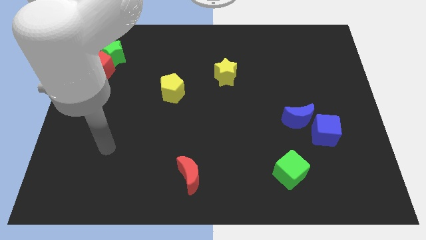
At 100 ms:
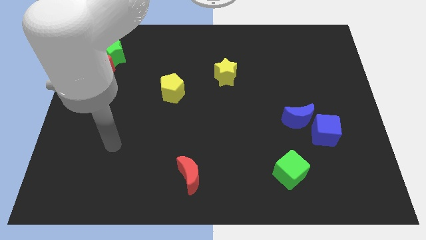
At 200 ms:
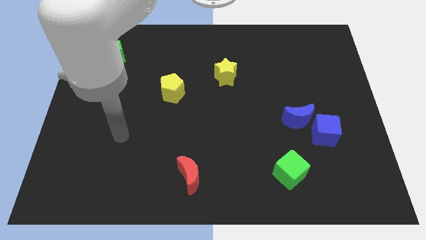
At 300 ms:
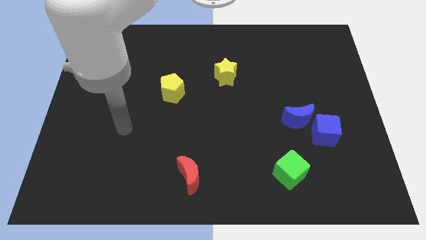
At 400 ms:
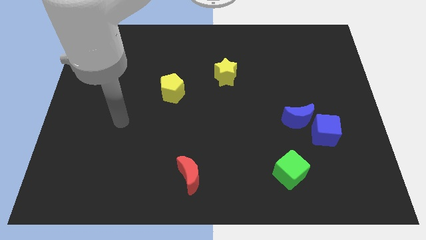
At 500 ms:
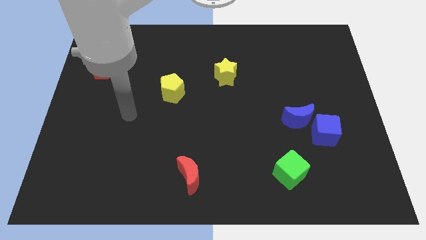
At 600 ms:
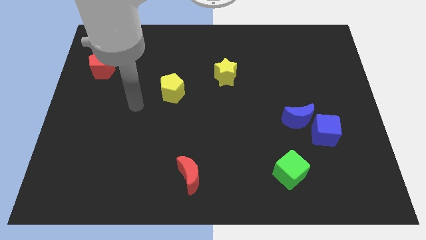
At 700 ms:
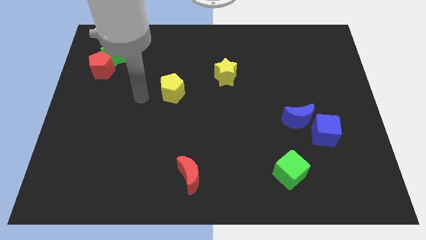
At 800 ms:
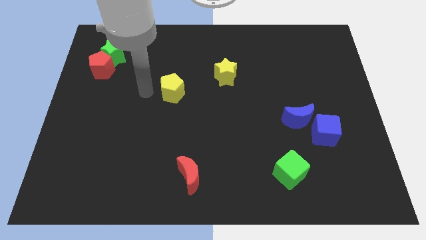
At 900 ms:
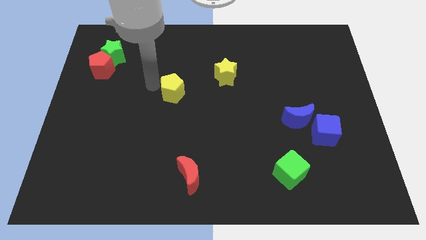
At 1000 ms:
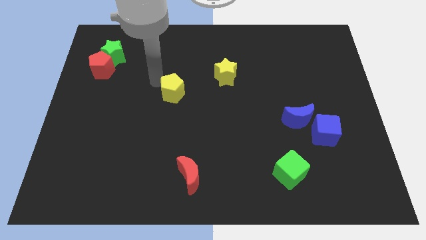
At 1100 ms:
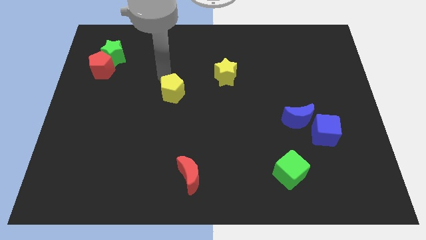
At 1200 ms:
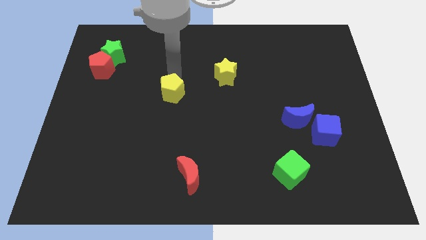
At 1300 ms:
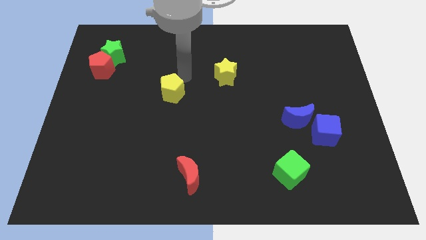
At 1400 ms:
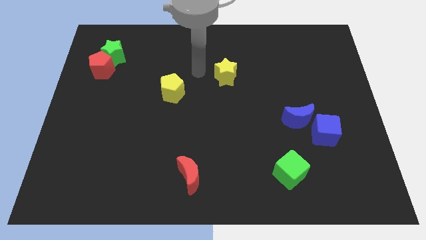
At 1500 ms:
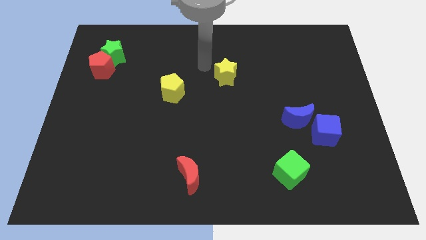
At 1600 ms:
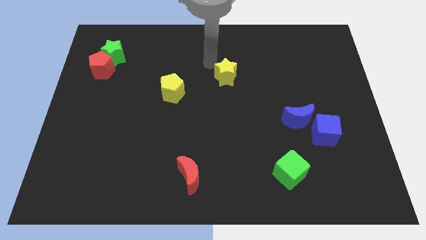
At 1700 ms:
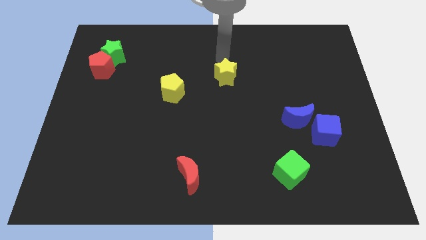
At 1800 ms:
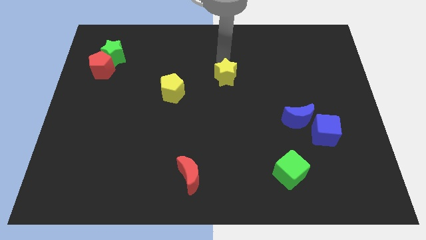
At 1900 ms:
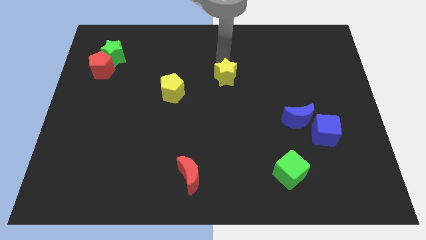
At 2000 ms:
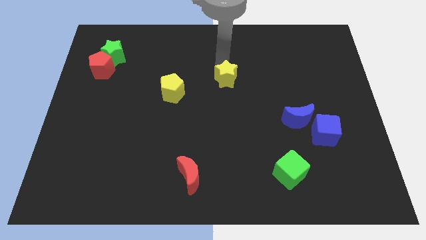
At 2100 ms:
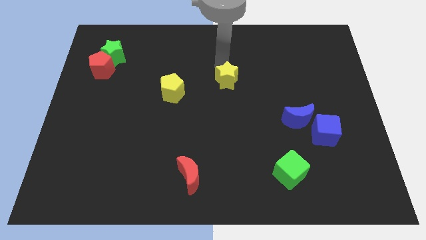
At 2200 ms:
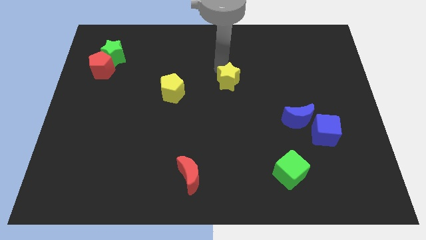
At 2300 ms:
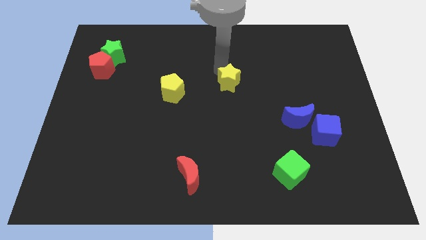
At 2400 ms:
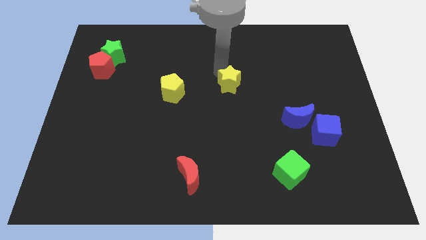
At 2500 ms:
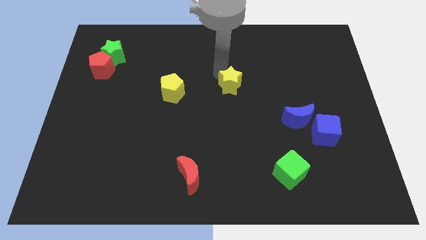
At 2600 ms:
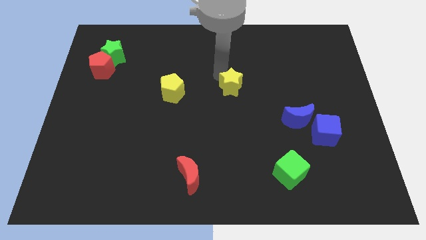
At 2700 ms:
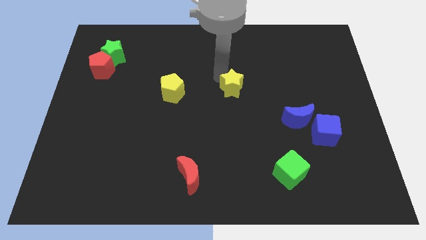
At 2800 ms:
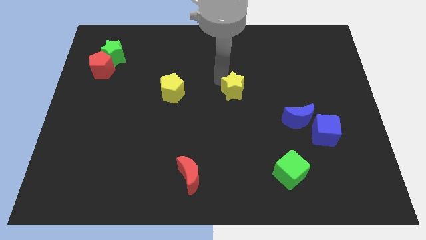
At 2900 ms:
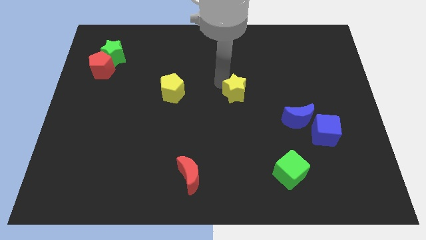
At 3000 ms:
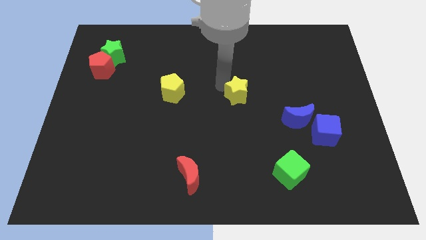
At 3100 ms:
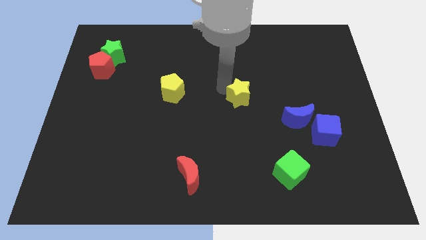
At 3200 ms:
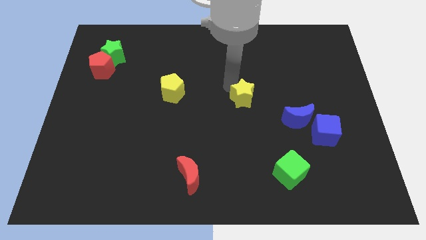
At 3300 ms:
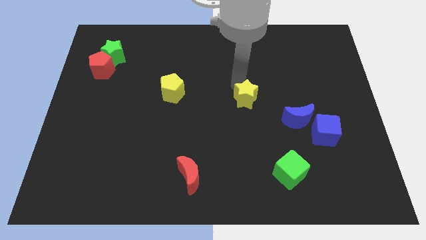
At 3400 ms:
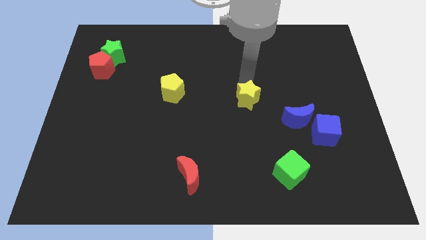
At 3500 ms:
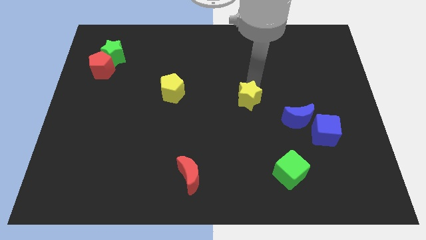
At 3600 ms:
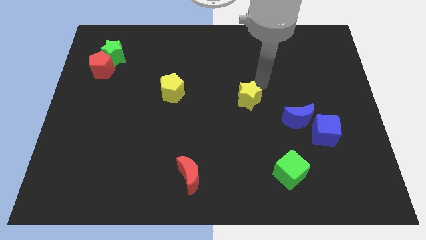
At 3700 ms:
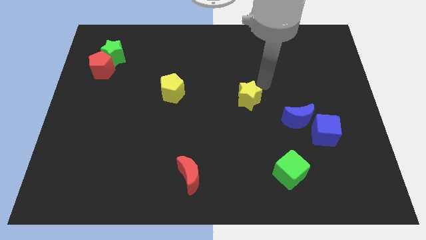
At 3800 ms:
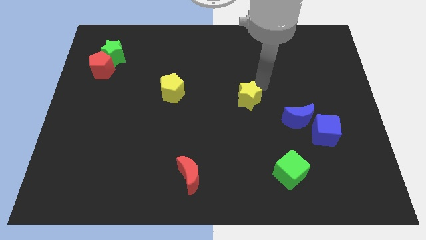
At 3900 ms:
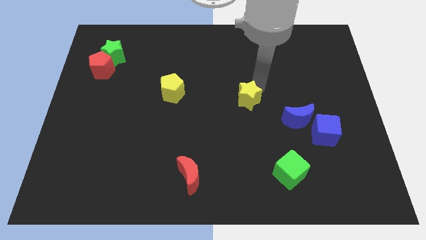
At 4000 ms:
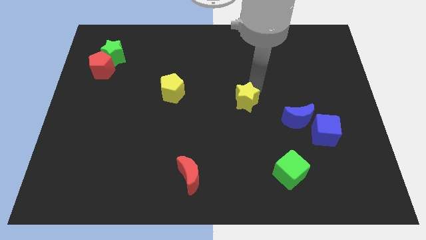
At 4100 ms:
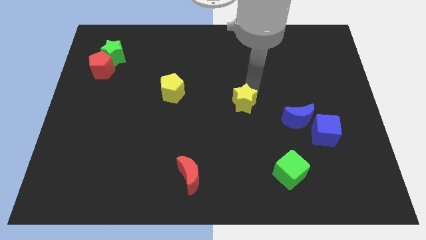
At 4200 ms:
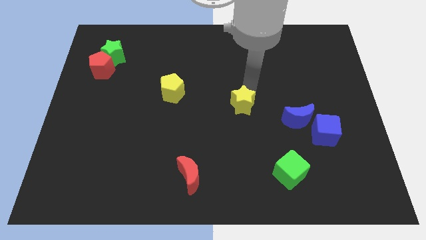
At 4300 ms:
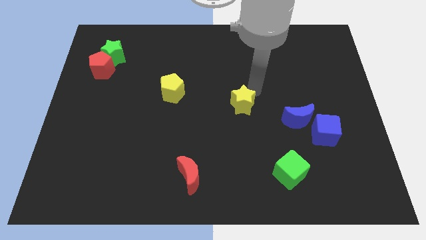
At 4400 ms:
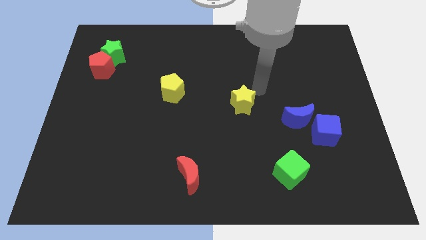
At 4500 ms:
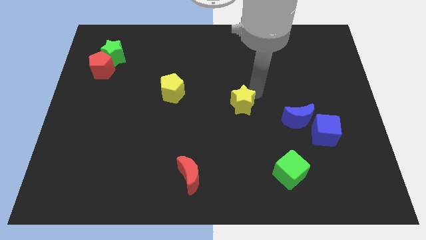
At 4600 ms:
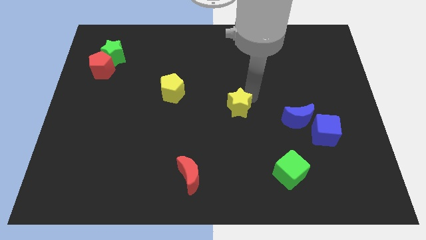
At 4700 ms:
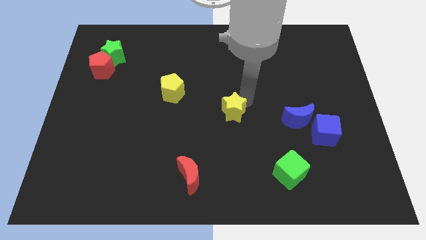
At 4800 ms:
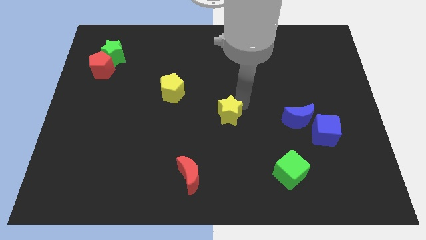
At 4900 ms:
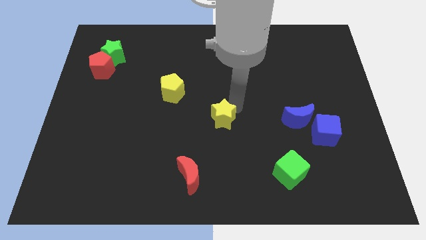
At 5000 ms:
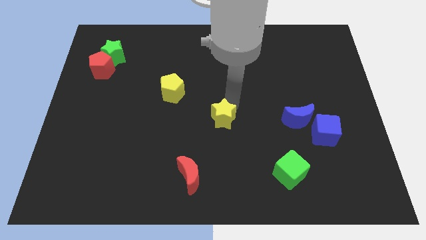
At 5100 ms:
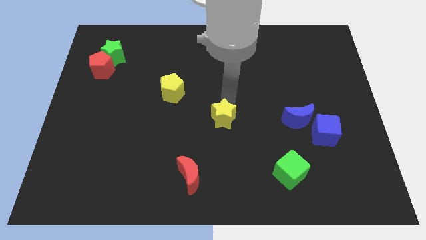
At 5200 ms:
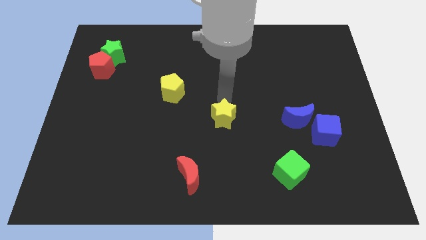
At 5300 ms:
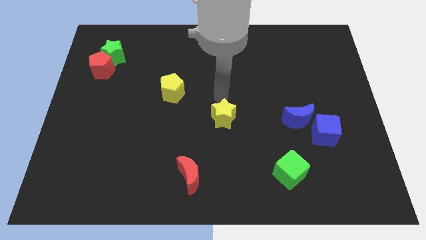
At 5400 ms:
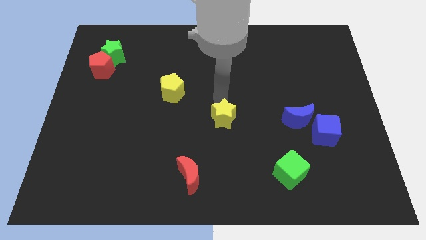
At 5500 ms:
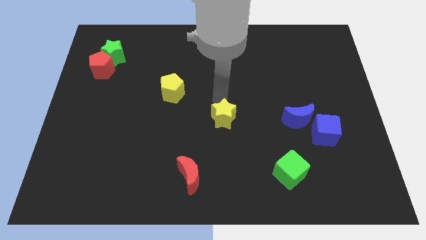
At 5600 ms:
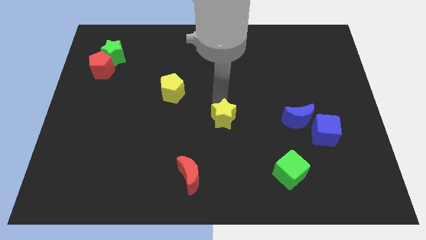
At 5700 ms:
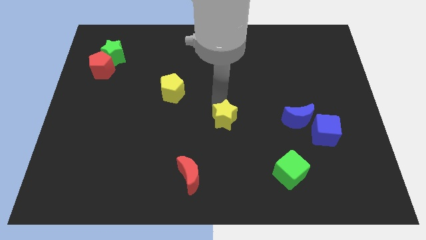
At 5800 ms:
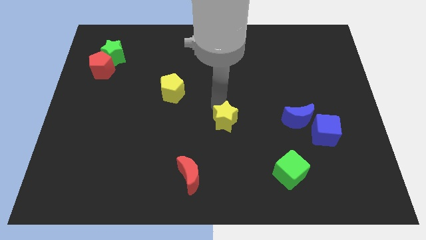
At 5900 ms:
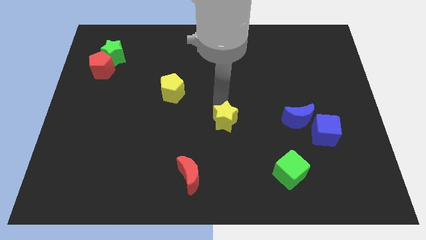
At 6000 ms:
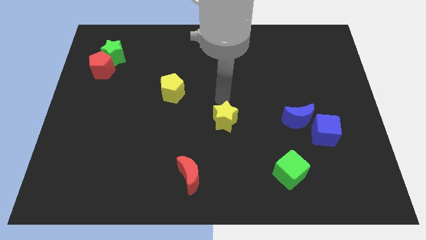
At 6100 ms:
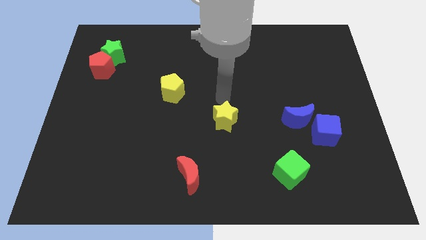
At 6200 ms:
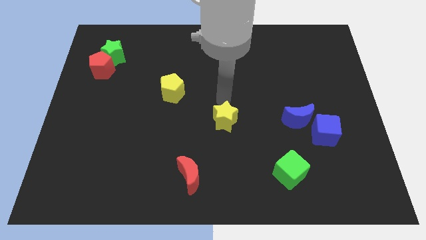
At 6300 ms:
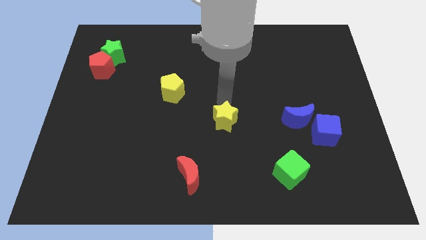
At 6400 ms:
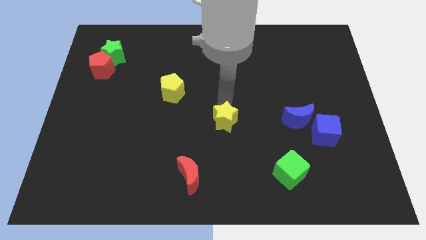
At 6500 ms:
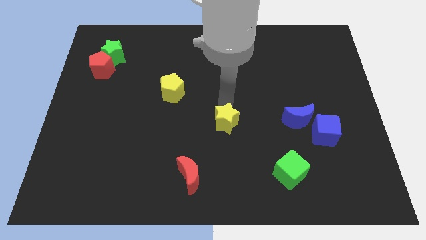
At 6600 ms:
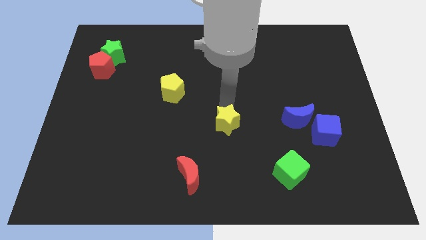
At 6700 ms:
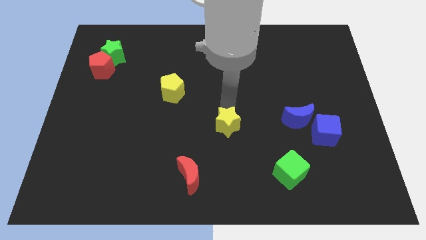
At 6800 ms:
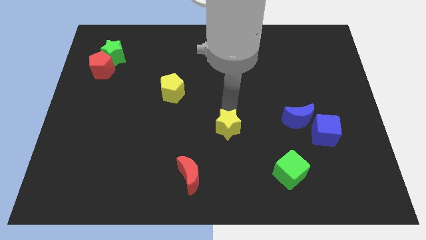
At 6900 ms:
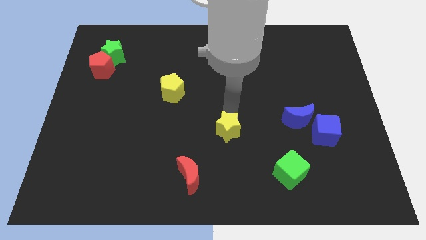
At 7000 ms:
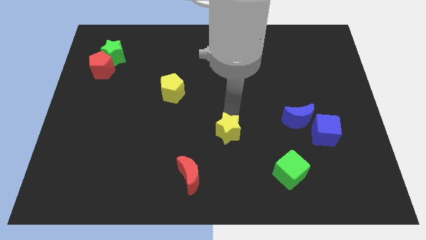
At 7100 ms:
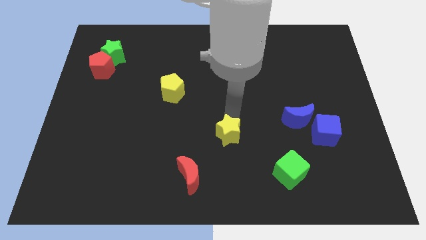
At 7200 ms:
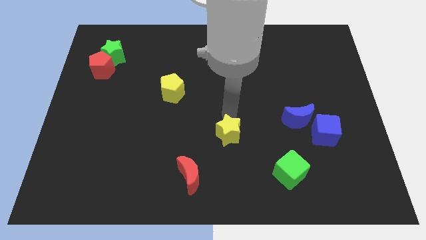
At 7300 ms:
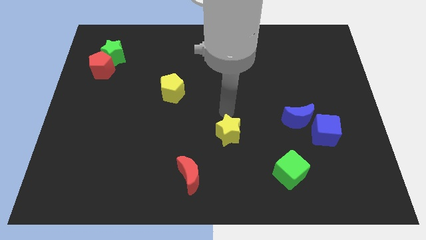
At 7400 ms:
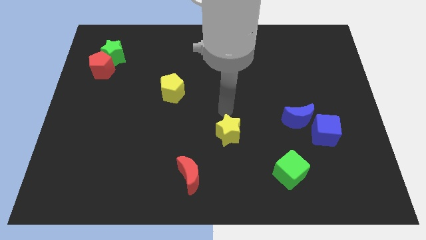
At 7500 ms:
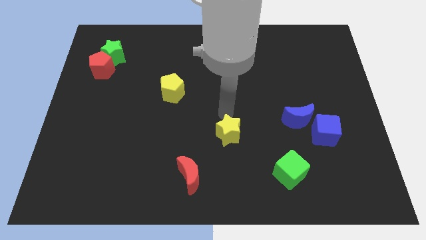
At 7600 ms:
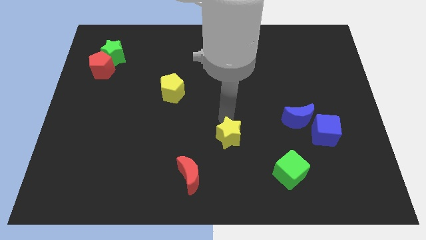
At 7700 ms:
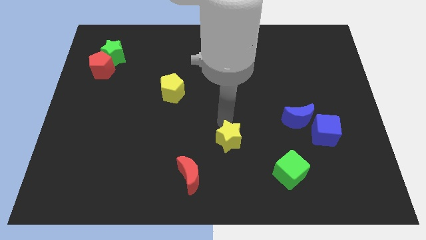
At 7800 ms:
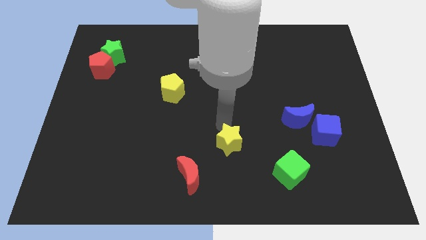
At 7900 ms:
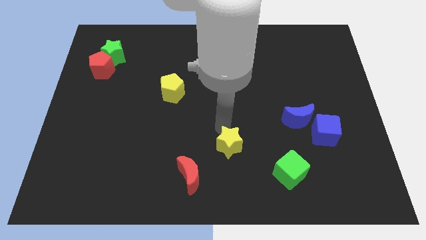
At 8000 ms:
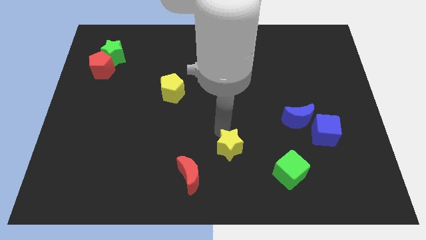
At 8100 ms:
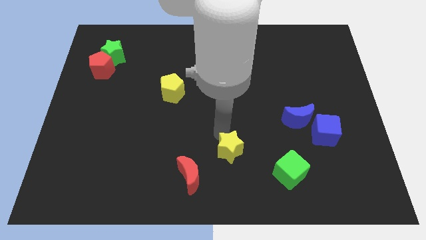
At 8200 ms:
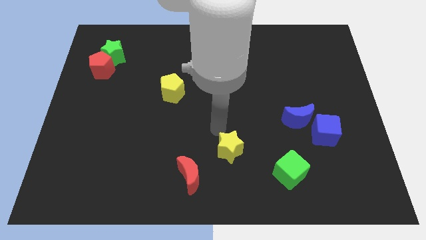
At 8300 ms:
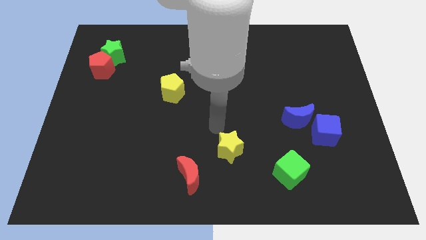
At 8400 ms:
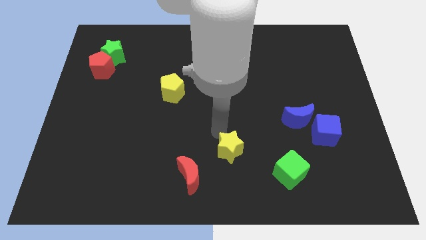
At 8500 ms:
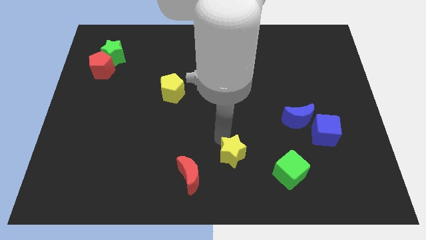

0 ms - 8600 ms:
move the yellow star just left of the green cube
